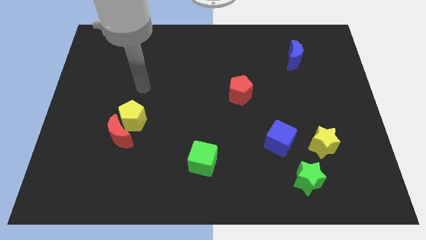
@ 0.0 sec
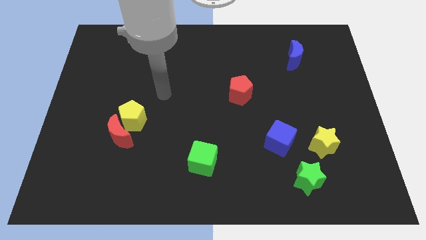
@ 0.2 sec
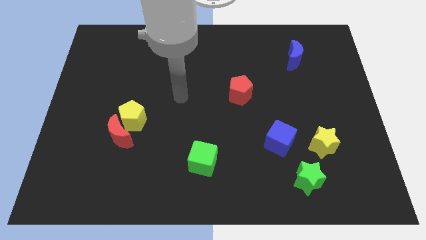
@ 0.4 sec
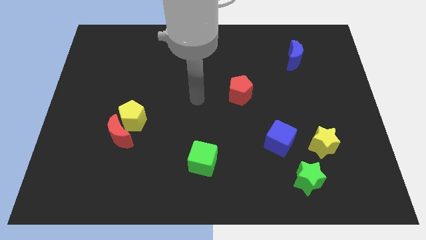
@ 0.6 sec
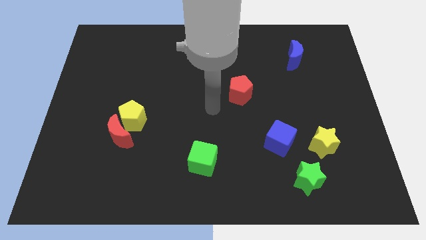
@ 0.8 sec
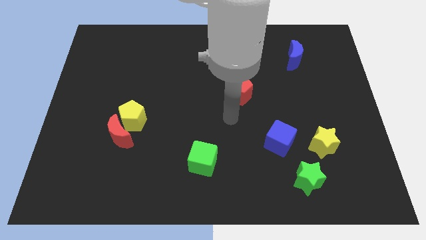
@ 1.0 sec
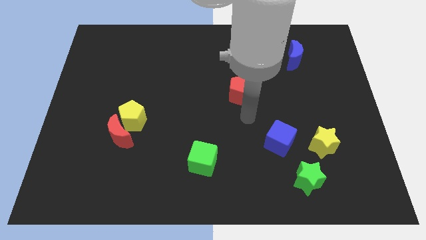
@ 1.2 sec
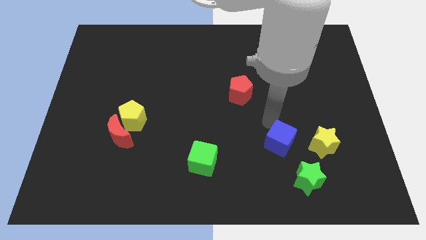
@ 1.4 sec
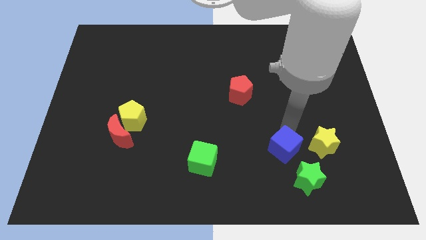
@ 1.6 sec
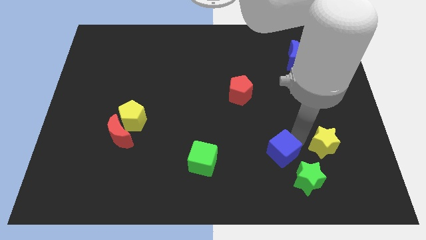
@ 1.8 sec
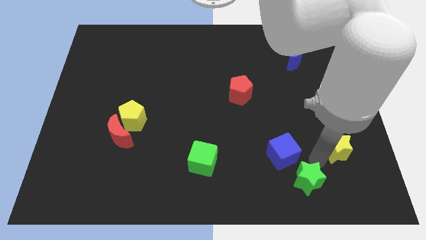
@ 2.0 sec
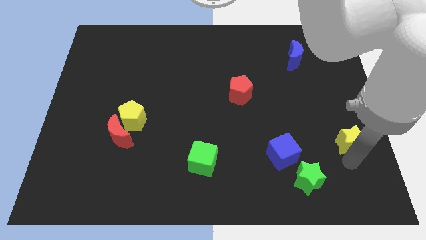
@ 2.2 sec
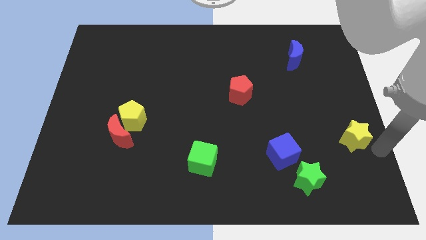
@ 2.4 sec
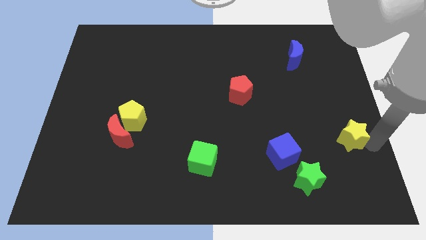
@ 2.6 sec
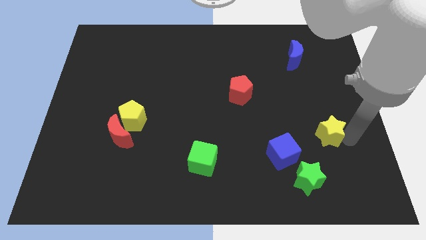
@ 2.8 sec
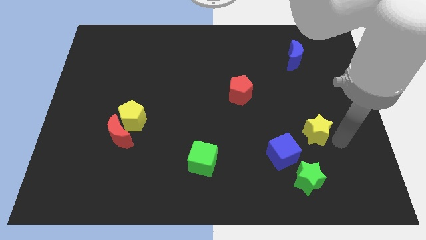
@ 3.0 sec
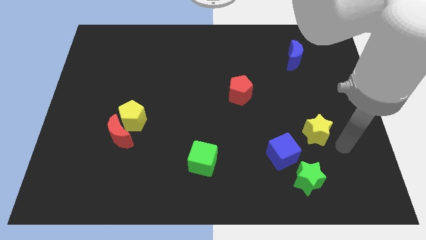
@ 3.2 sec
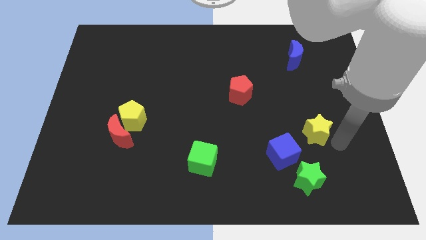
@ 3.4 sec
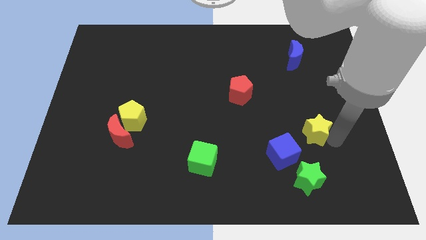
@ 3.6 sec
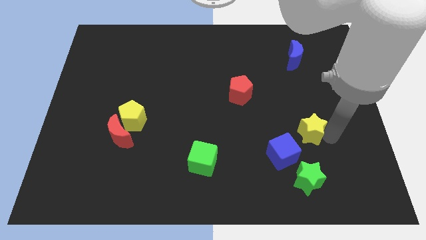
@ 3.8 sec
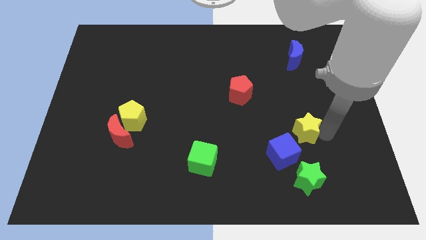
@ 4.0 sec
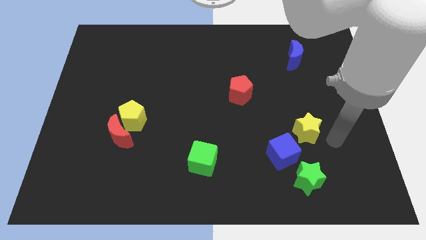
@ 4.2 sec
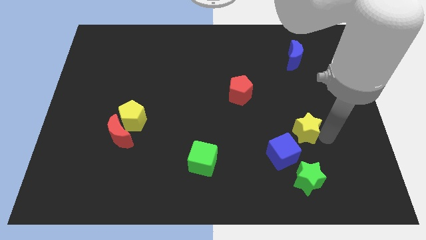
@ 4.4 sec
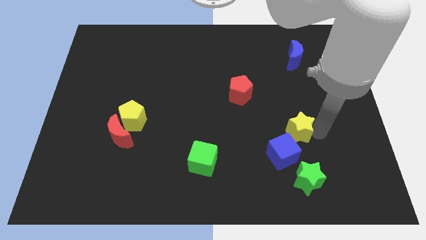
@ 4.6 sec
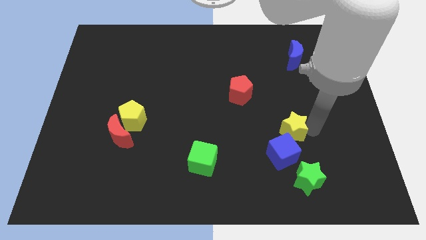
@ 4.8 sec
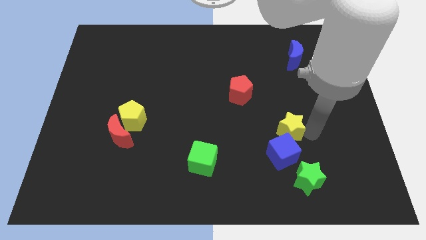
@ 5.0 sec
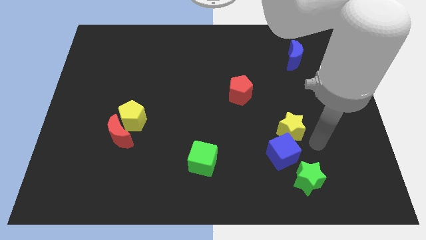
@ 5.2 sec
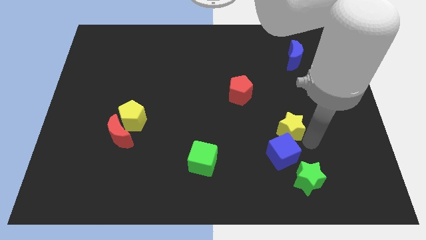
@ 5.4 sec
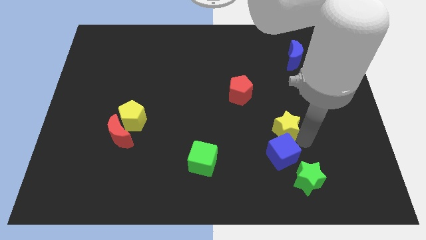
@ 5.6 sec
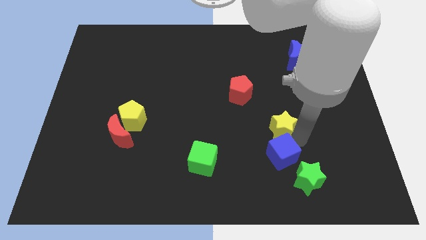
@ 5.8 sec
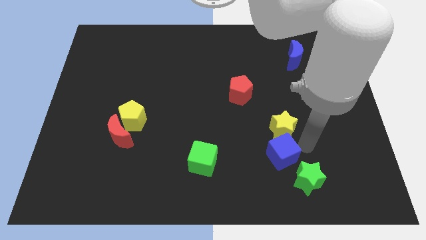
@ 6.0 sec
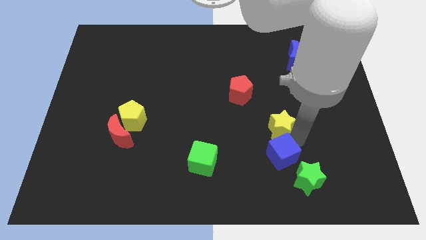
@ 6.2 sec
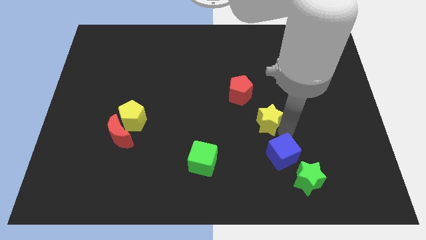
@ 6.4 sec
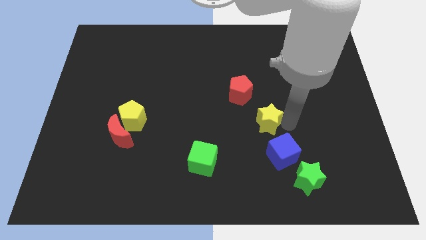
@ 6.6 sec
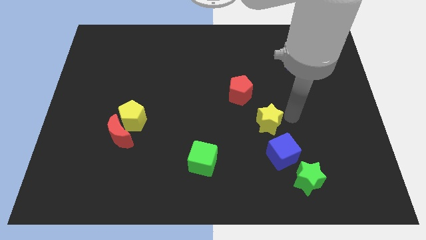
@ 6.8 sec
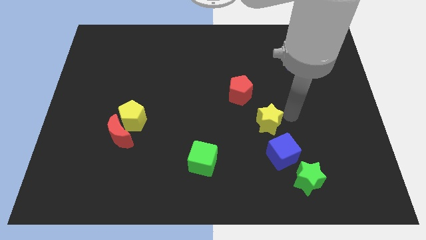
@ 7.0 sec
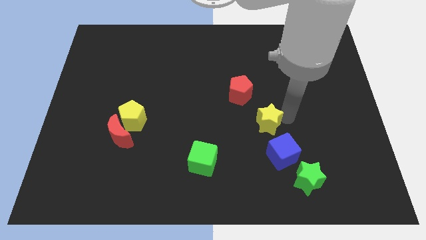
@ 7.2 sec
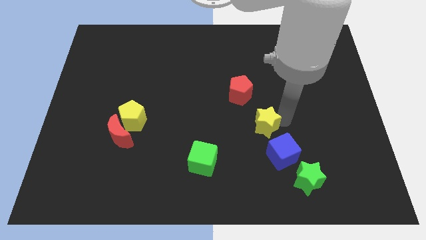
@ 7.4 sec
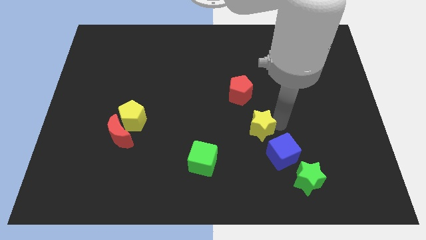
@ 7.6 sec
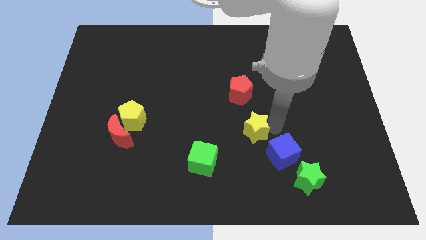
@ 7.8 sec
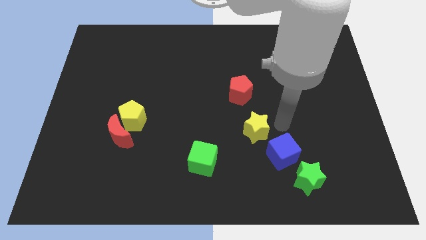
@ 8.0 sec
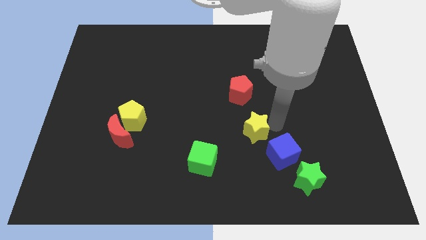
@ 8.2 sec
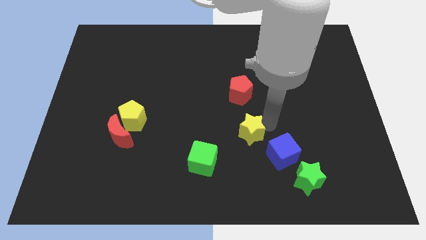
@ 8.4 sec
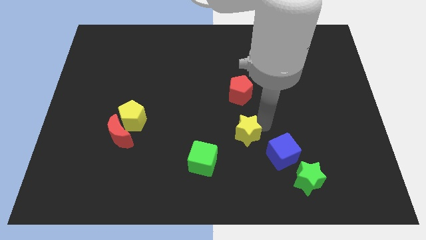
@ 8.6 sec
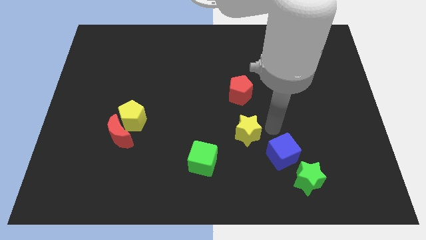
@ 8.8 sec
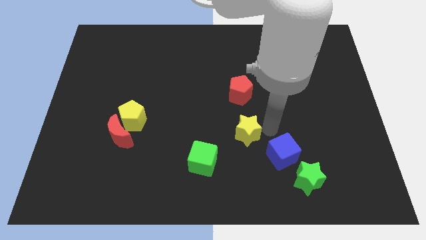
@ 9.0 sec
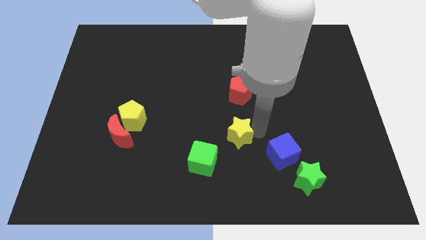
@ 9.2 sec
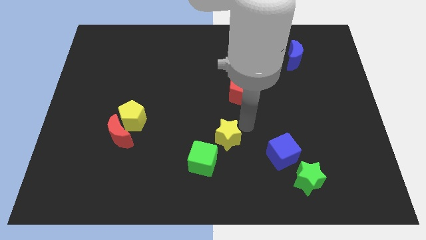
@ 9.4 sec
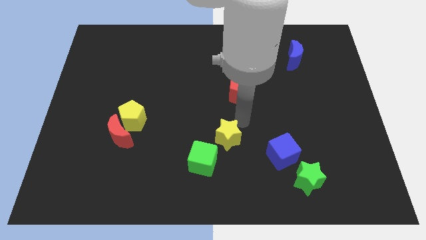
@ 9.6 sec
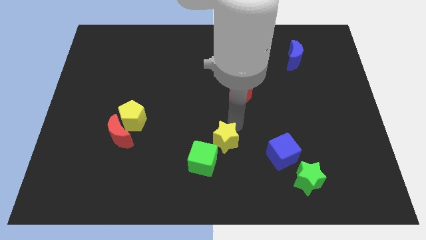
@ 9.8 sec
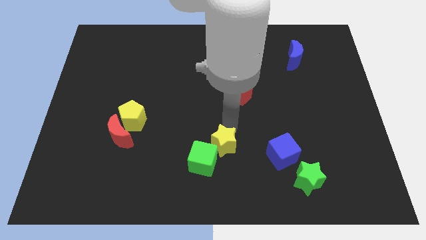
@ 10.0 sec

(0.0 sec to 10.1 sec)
push the yellow star to the green cube

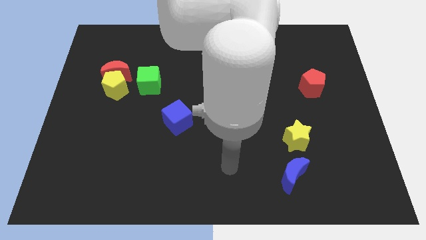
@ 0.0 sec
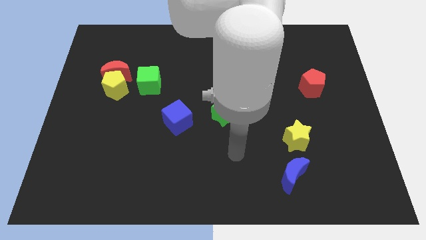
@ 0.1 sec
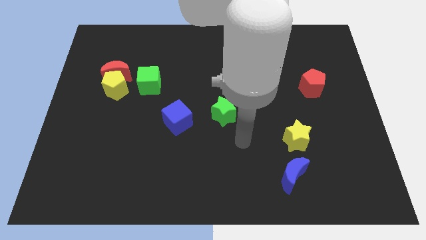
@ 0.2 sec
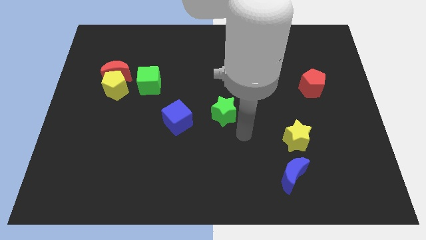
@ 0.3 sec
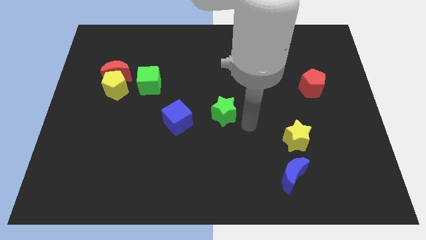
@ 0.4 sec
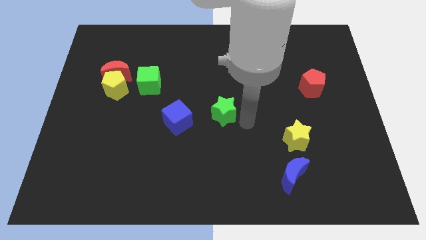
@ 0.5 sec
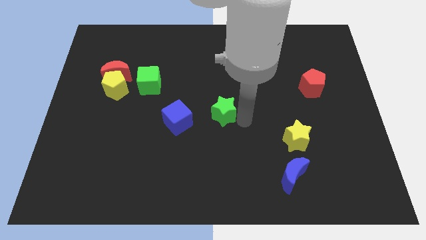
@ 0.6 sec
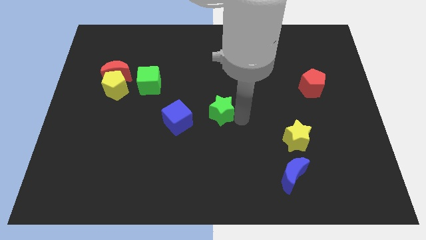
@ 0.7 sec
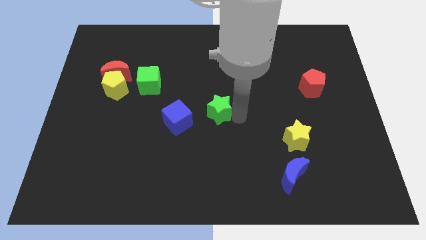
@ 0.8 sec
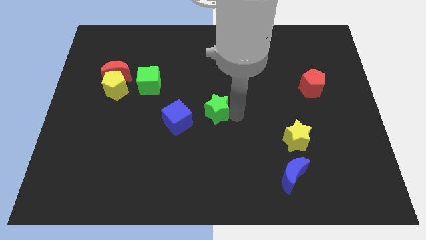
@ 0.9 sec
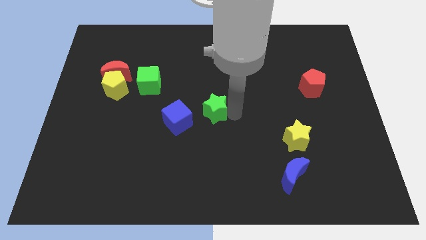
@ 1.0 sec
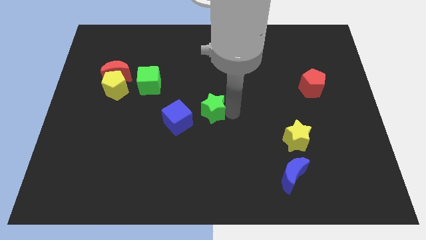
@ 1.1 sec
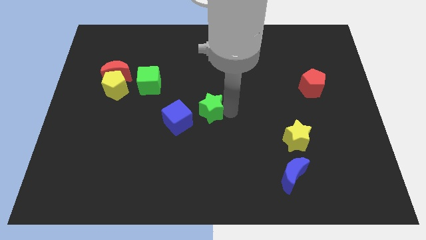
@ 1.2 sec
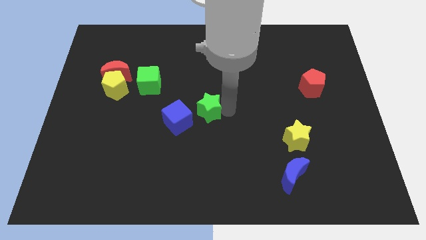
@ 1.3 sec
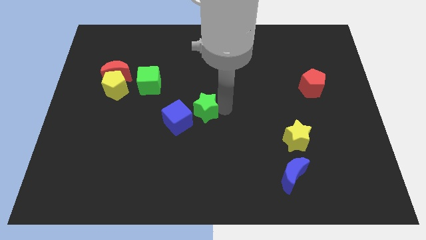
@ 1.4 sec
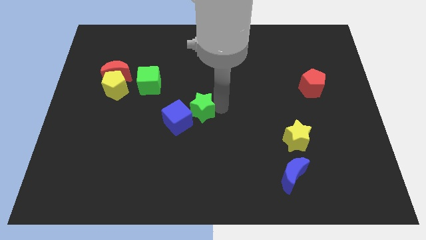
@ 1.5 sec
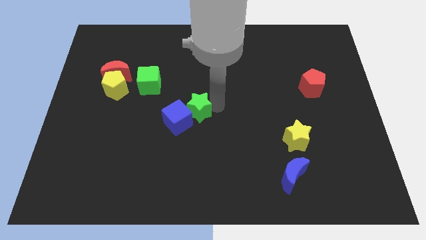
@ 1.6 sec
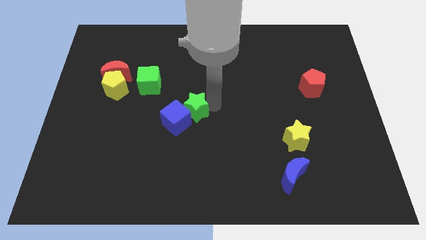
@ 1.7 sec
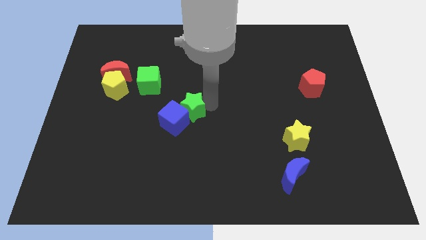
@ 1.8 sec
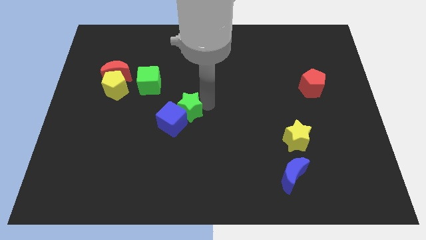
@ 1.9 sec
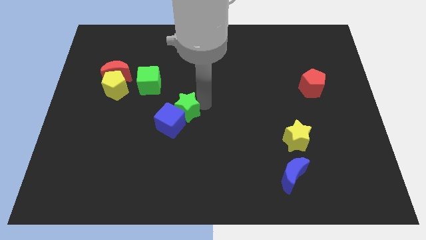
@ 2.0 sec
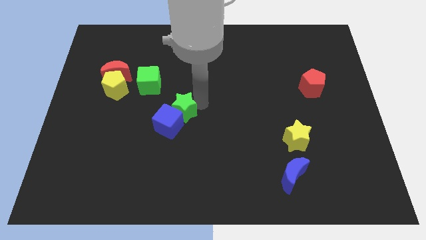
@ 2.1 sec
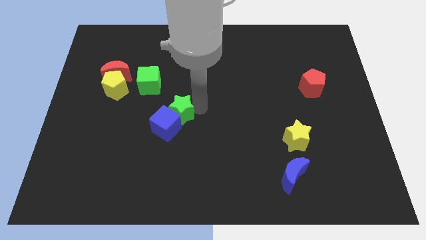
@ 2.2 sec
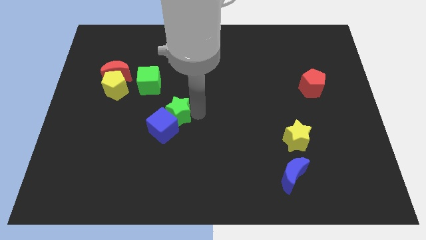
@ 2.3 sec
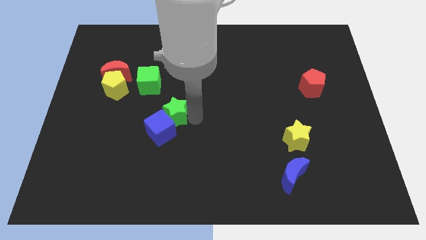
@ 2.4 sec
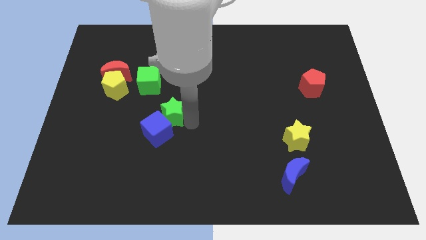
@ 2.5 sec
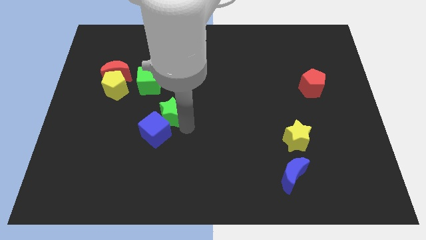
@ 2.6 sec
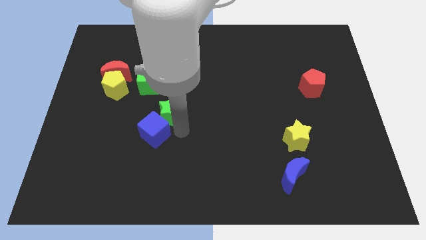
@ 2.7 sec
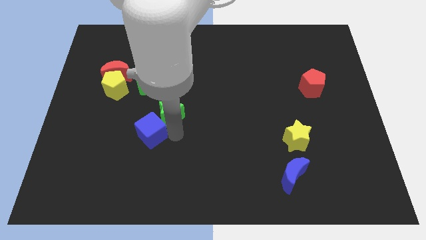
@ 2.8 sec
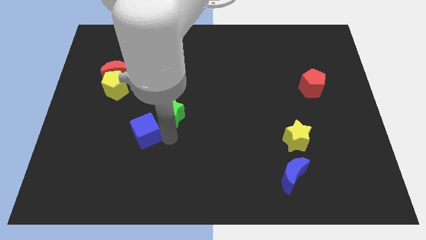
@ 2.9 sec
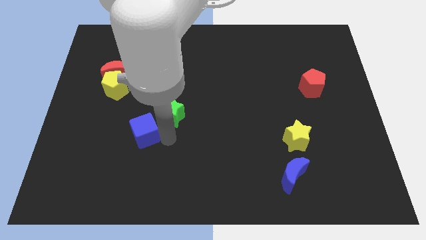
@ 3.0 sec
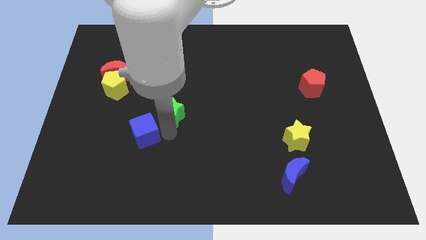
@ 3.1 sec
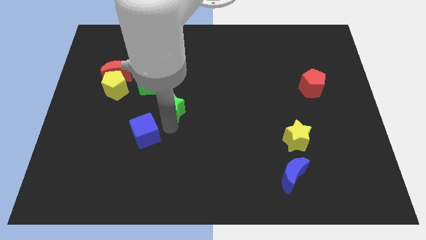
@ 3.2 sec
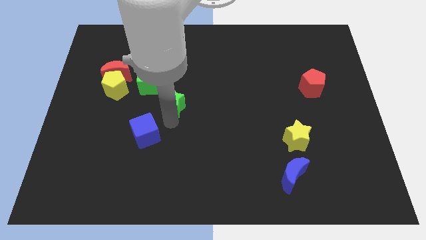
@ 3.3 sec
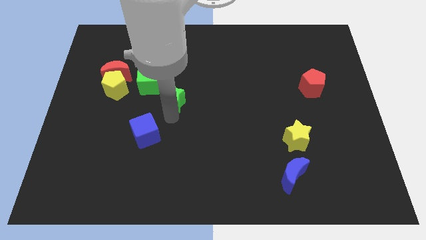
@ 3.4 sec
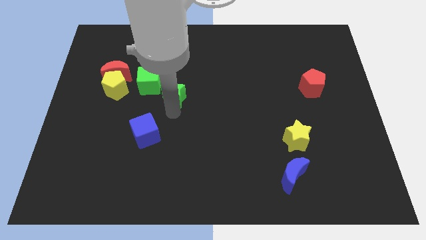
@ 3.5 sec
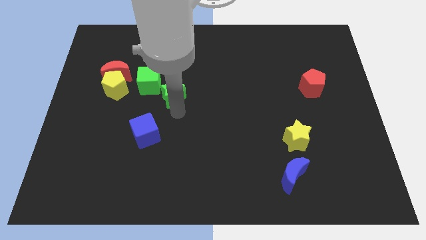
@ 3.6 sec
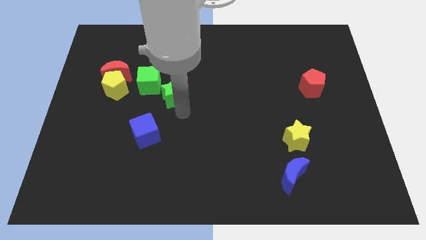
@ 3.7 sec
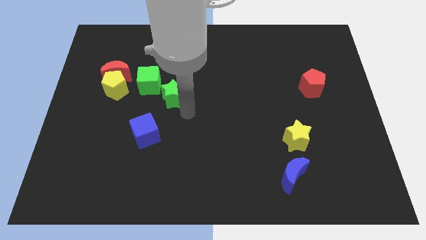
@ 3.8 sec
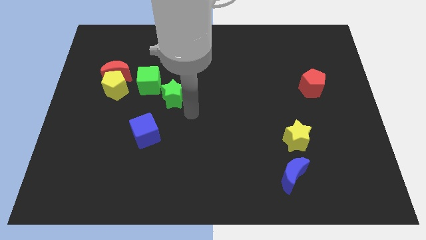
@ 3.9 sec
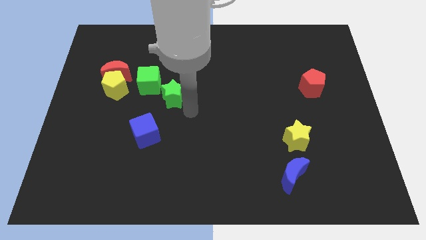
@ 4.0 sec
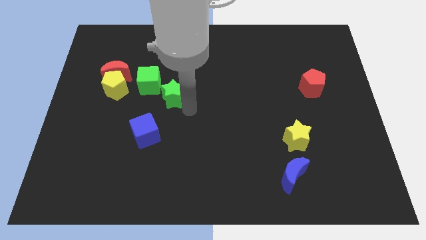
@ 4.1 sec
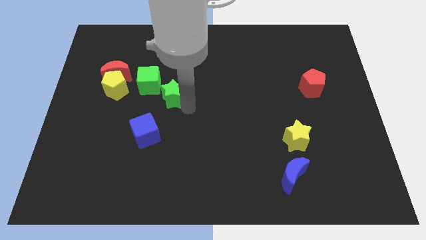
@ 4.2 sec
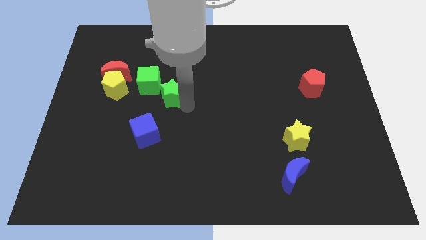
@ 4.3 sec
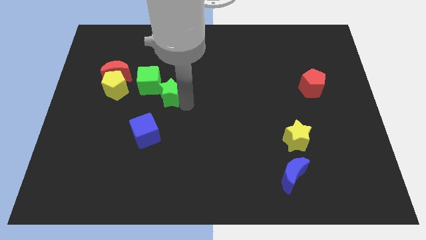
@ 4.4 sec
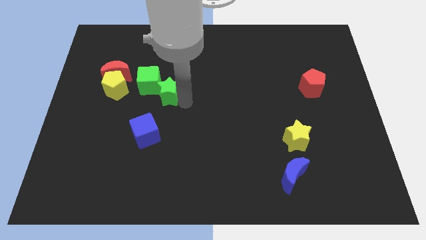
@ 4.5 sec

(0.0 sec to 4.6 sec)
push the green star next to the green cube
